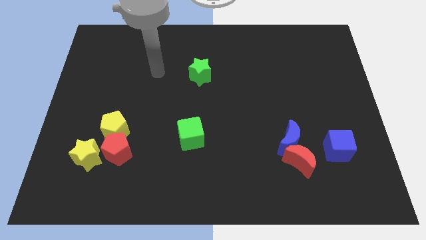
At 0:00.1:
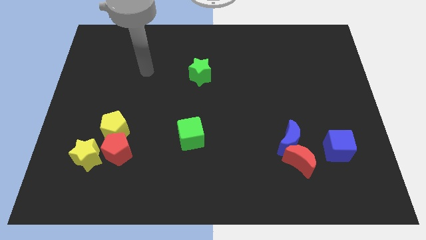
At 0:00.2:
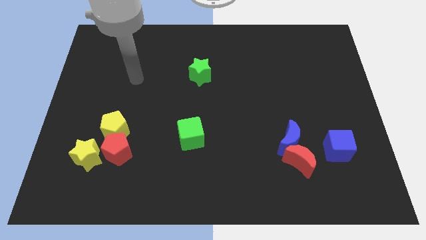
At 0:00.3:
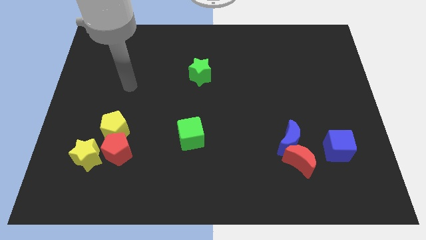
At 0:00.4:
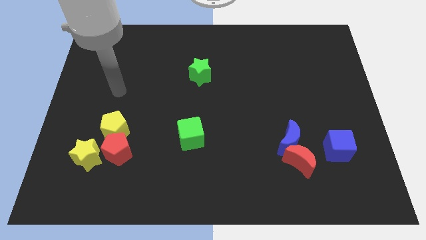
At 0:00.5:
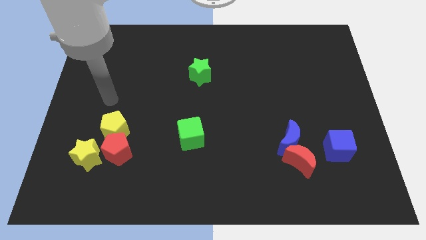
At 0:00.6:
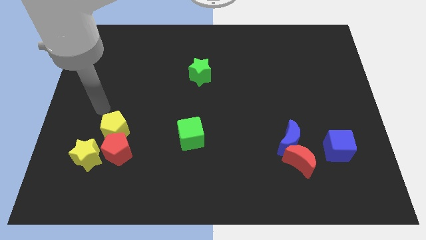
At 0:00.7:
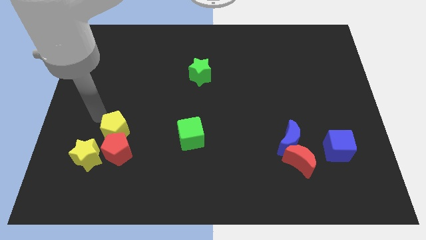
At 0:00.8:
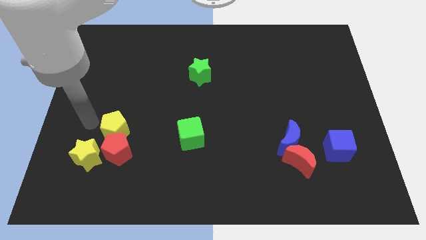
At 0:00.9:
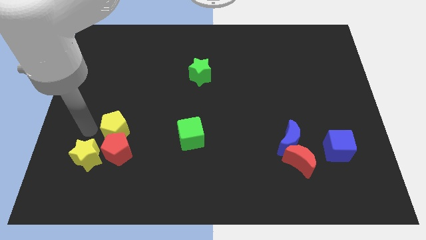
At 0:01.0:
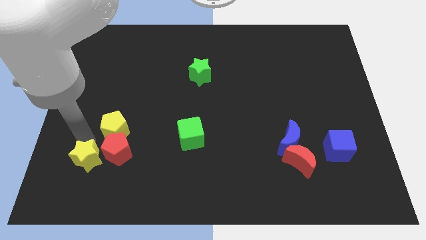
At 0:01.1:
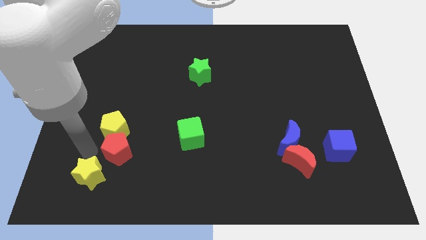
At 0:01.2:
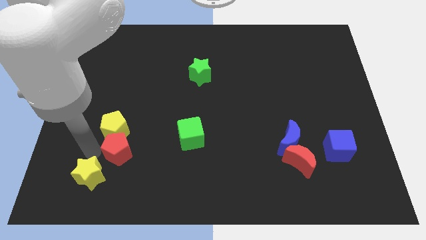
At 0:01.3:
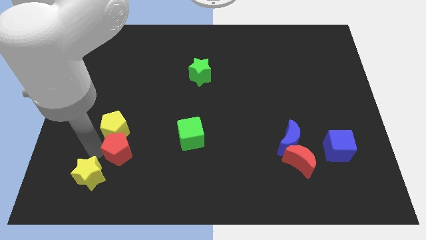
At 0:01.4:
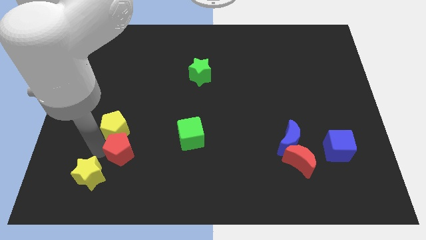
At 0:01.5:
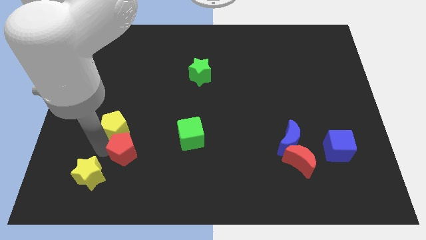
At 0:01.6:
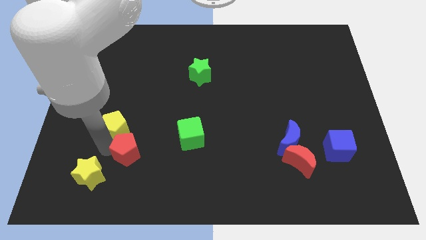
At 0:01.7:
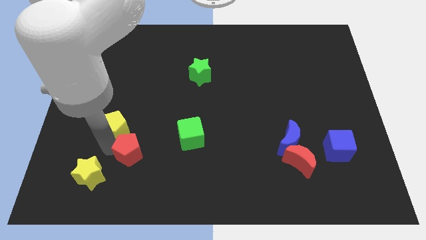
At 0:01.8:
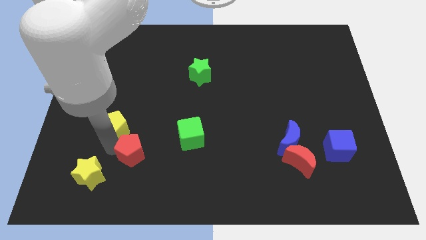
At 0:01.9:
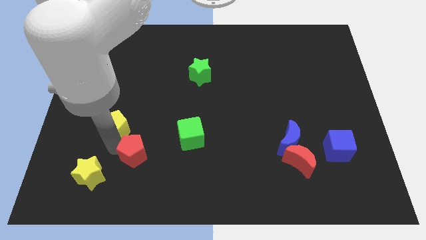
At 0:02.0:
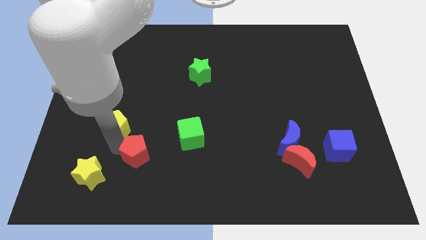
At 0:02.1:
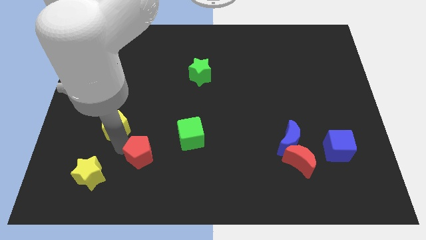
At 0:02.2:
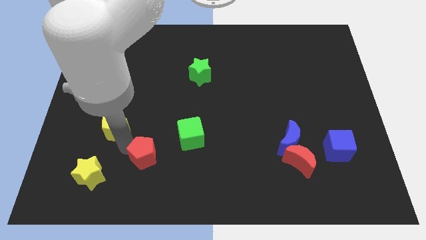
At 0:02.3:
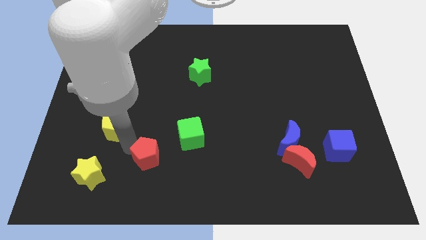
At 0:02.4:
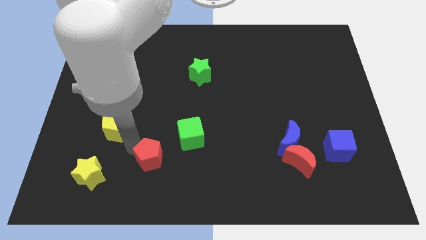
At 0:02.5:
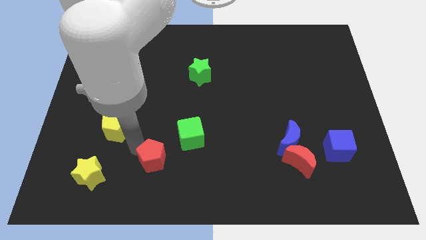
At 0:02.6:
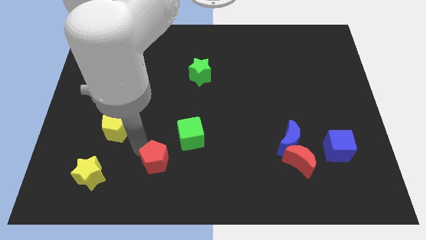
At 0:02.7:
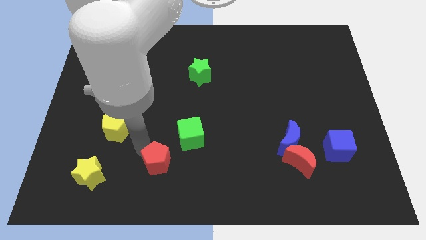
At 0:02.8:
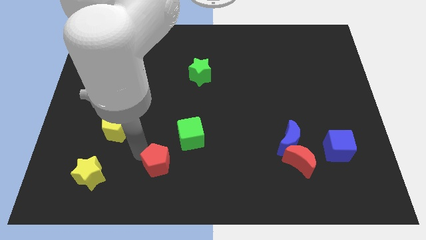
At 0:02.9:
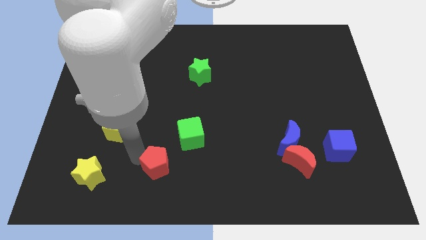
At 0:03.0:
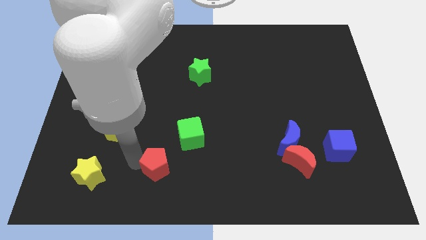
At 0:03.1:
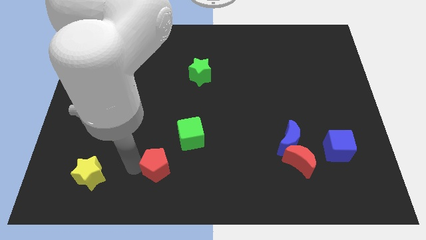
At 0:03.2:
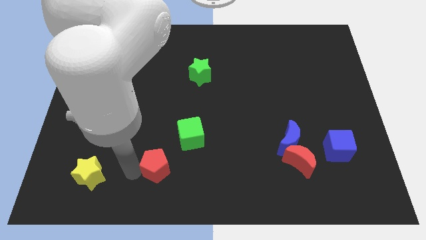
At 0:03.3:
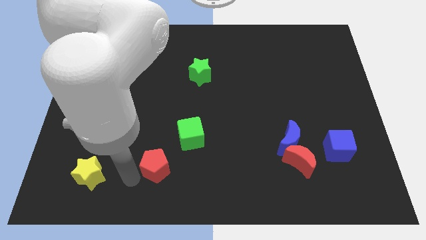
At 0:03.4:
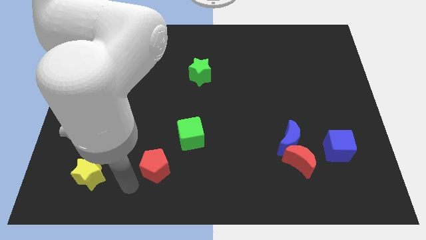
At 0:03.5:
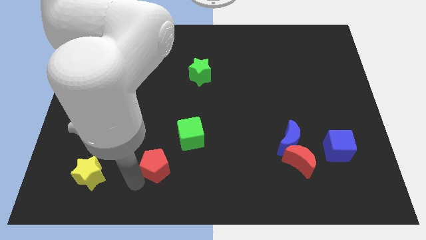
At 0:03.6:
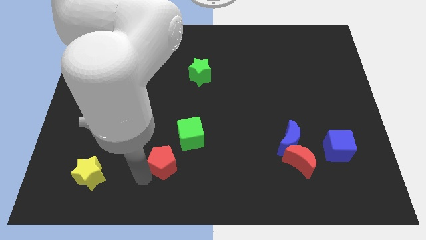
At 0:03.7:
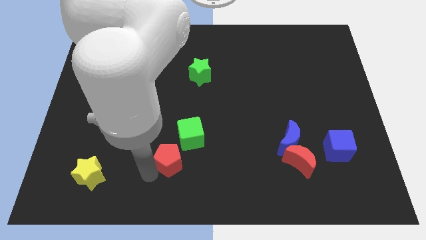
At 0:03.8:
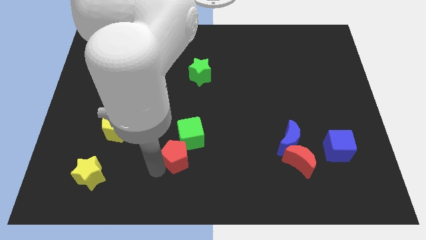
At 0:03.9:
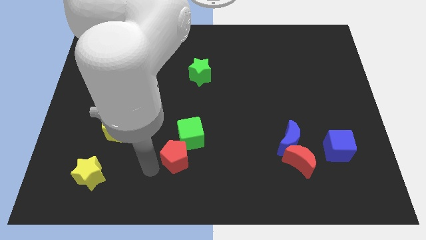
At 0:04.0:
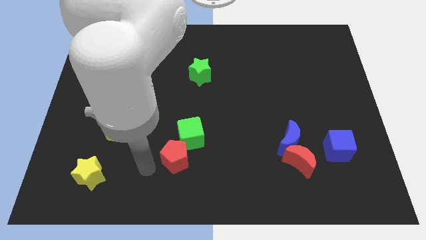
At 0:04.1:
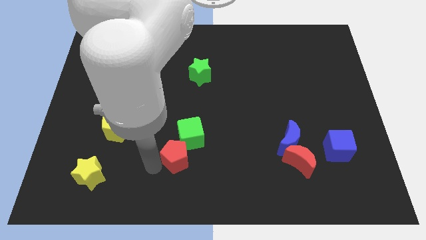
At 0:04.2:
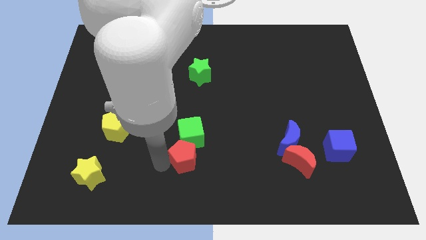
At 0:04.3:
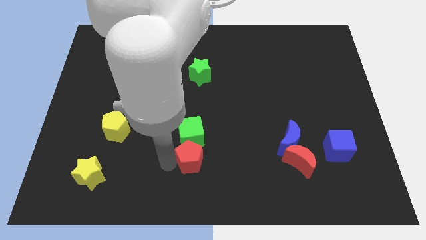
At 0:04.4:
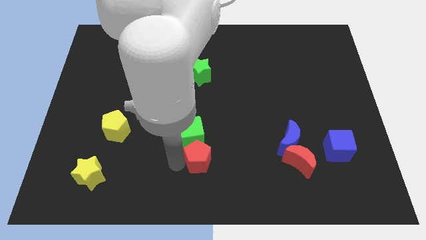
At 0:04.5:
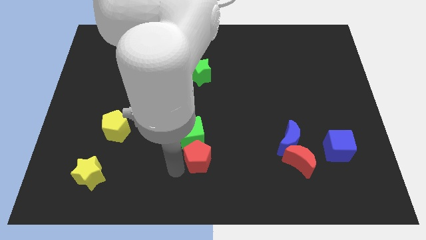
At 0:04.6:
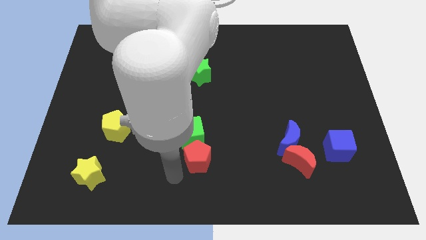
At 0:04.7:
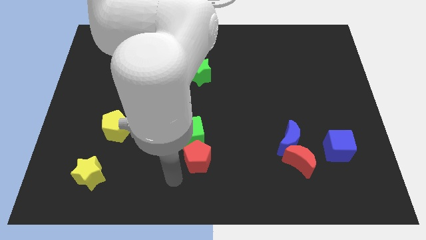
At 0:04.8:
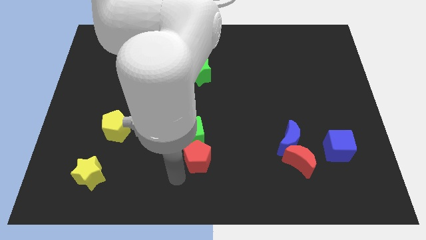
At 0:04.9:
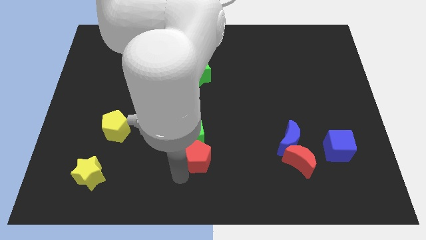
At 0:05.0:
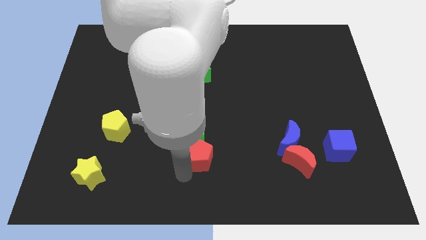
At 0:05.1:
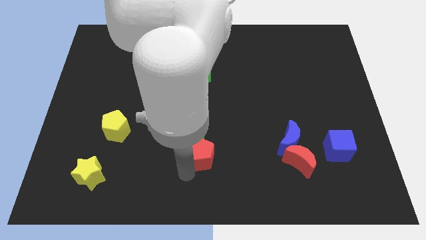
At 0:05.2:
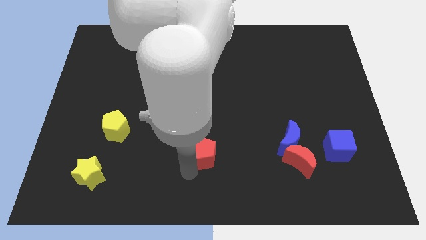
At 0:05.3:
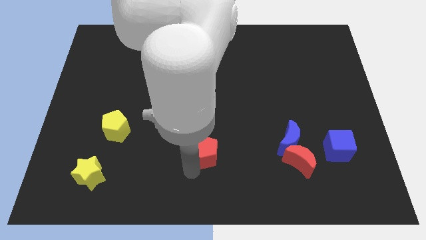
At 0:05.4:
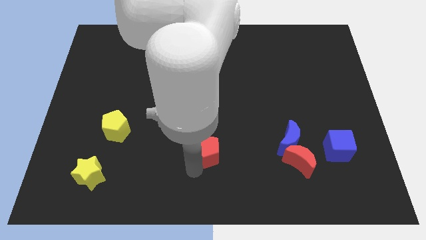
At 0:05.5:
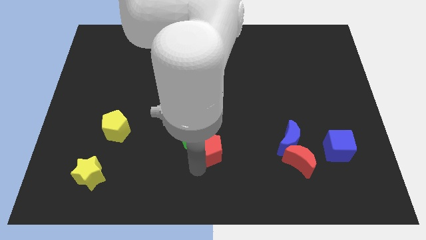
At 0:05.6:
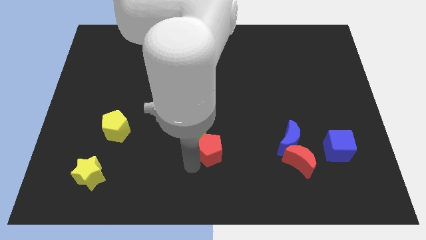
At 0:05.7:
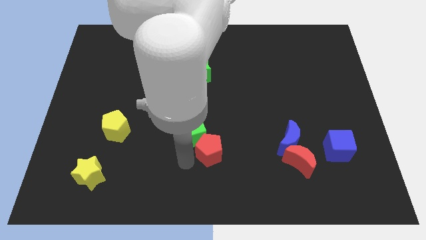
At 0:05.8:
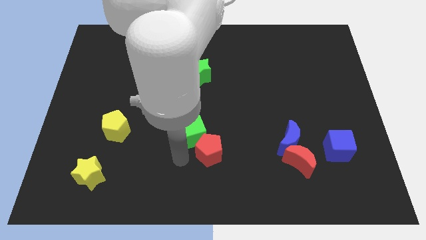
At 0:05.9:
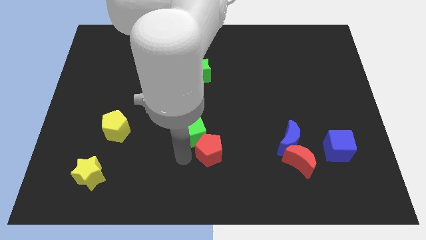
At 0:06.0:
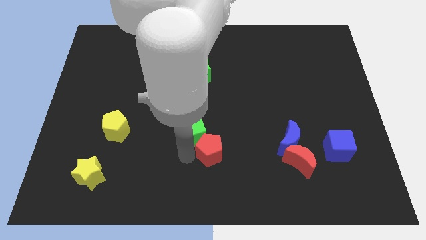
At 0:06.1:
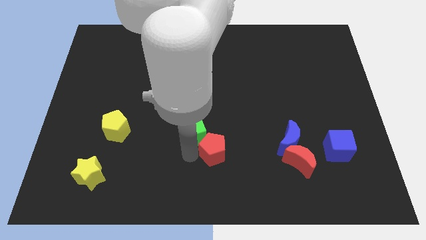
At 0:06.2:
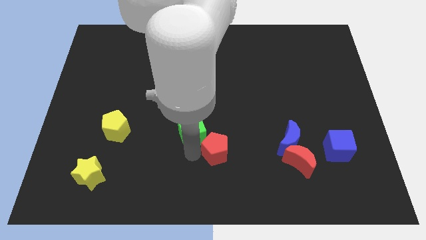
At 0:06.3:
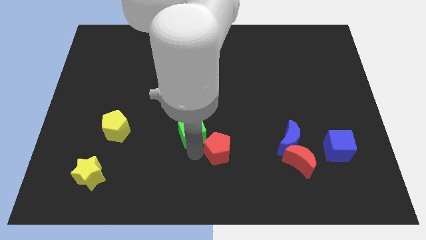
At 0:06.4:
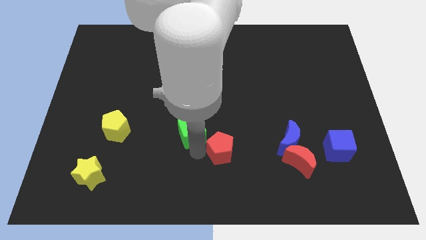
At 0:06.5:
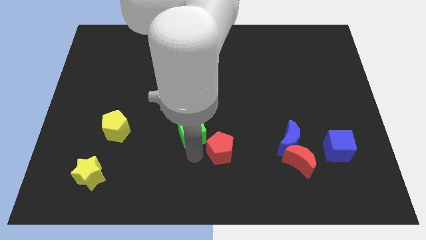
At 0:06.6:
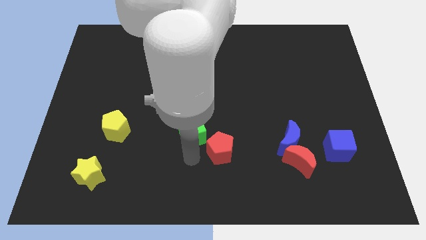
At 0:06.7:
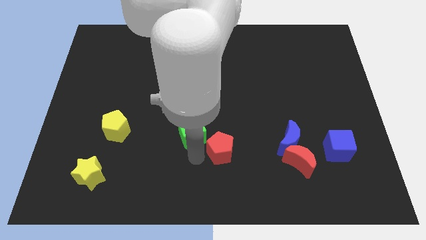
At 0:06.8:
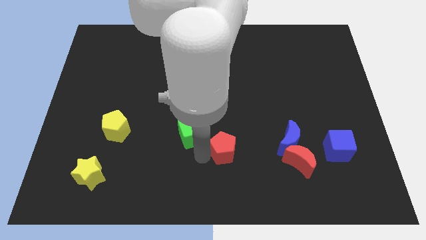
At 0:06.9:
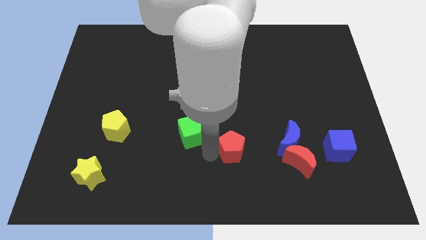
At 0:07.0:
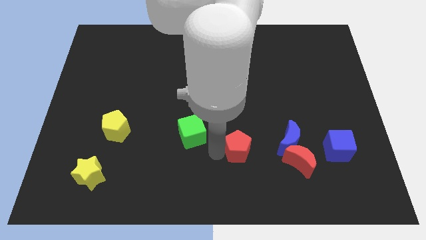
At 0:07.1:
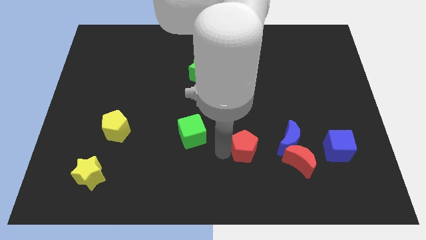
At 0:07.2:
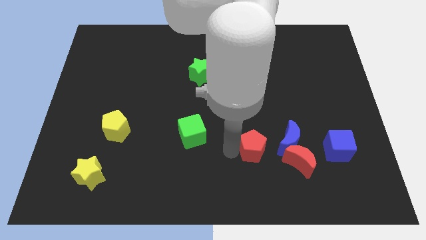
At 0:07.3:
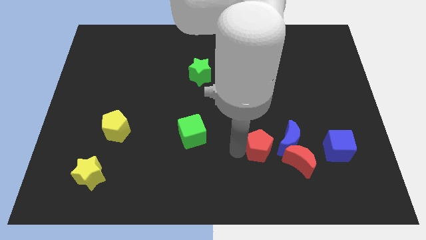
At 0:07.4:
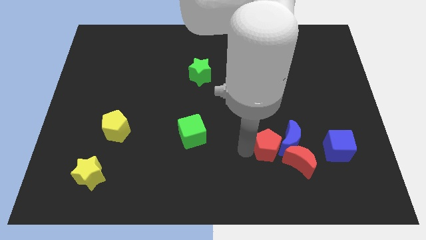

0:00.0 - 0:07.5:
slide the red pentagon just left of the blue cube
